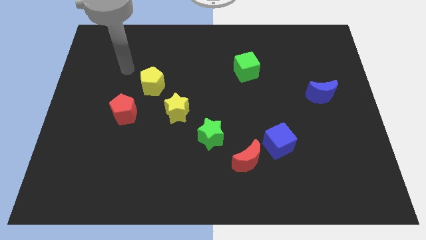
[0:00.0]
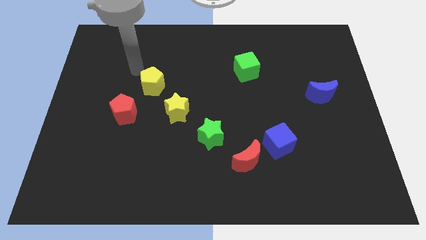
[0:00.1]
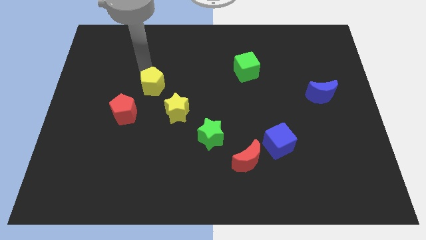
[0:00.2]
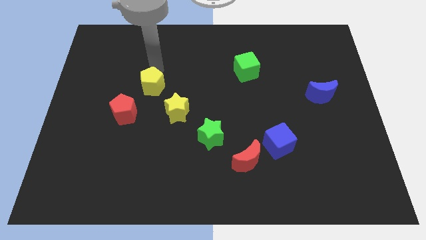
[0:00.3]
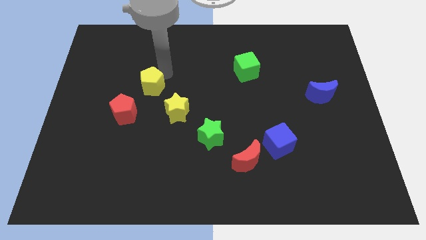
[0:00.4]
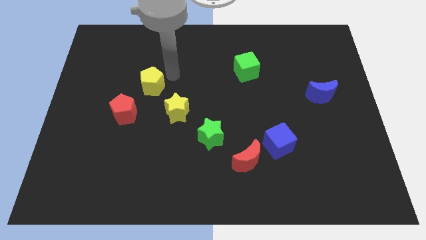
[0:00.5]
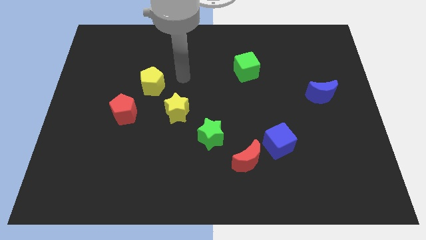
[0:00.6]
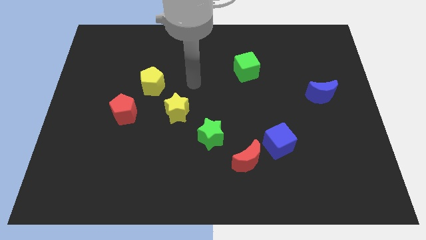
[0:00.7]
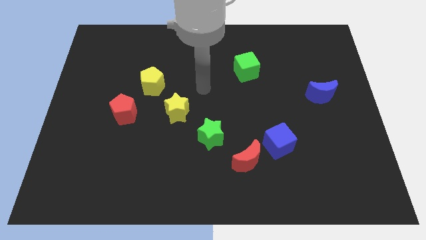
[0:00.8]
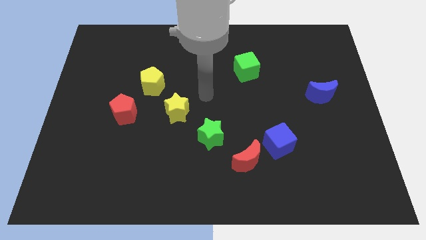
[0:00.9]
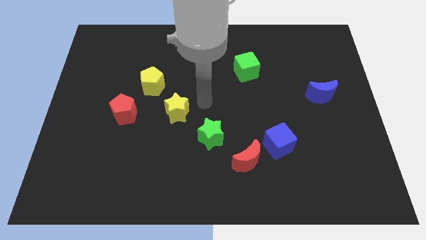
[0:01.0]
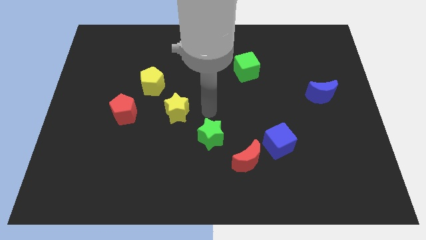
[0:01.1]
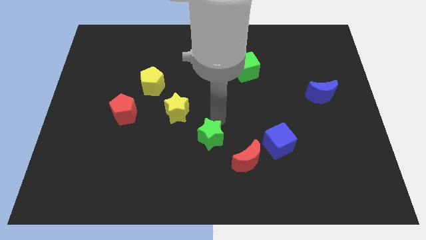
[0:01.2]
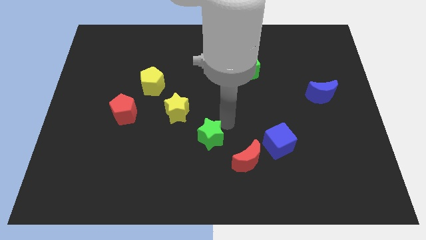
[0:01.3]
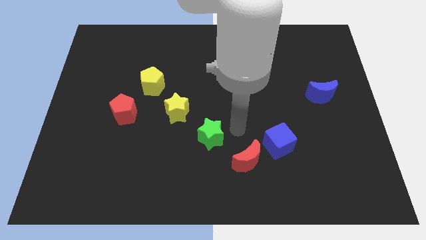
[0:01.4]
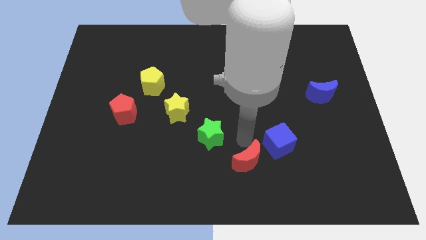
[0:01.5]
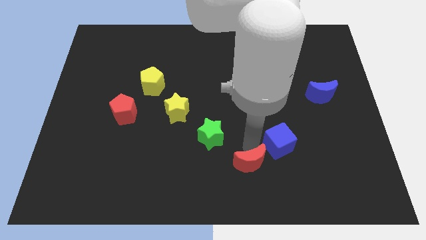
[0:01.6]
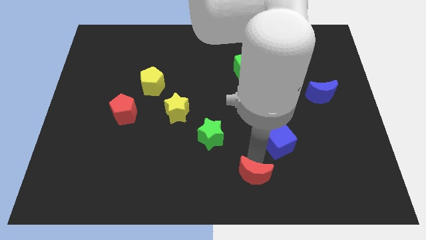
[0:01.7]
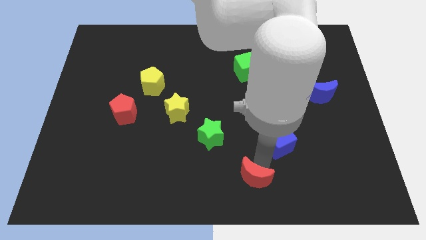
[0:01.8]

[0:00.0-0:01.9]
pull the blue cube apart from the red moon

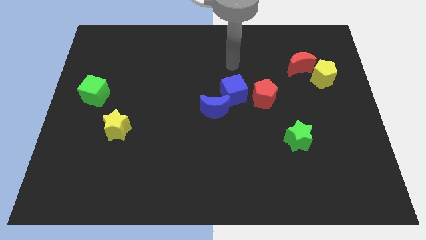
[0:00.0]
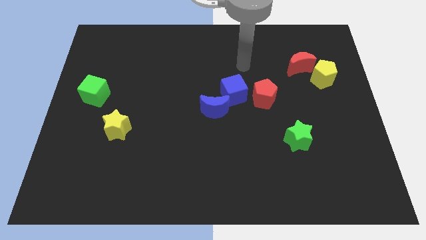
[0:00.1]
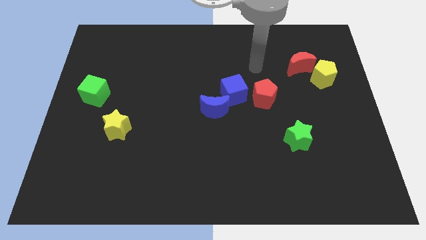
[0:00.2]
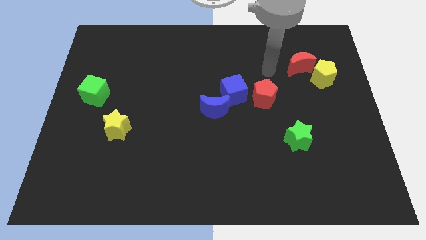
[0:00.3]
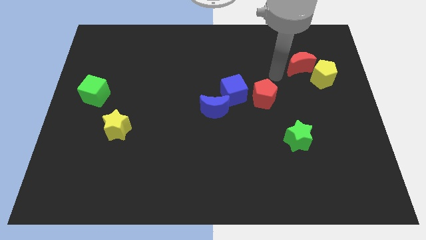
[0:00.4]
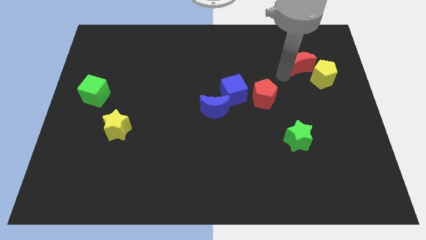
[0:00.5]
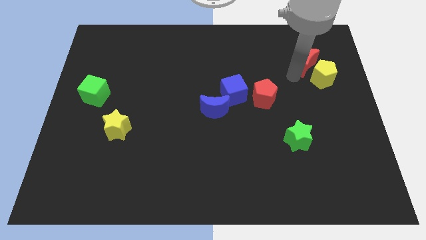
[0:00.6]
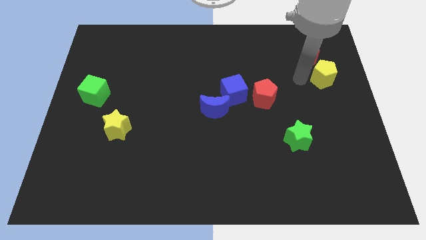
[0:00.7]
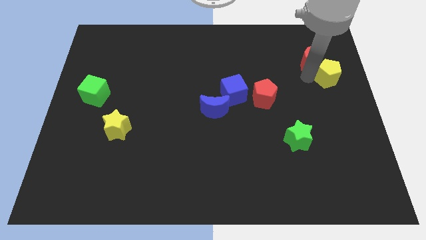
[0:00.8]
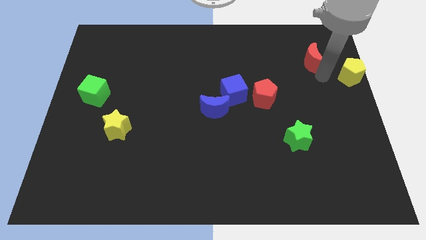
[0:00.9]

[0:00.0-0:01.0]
pull the red moon apart from the yellow pentagon

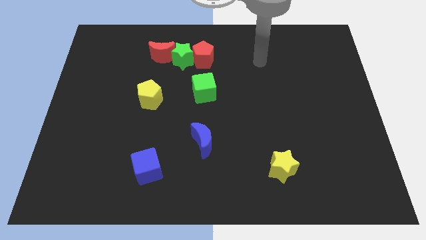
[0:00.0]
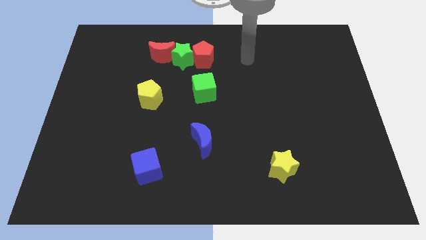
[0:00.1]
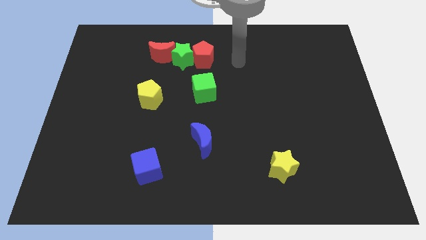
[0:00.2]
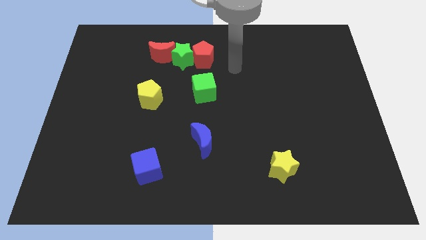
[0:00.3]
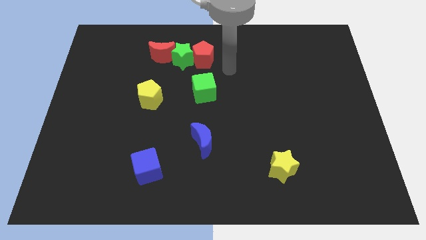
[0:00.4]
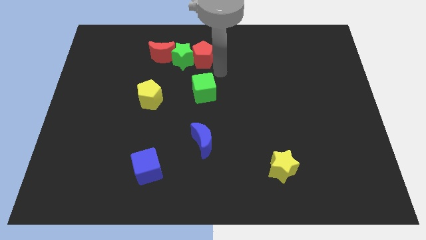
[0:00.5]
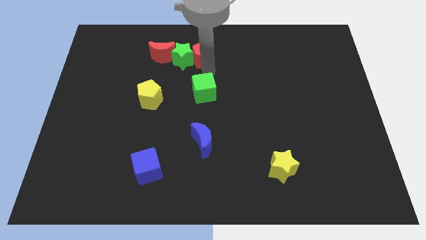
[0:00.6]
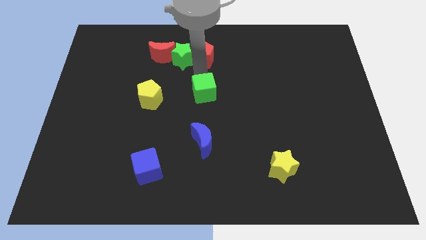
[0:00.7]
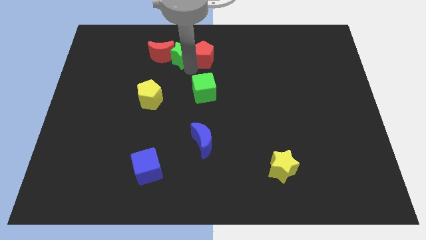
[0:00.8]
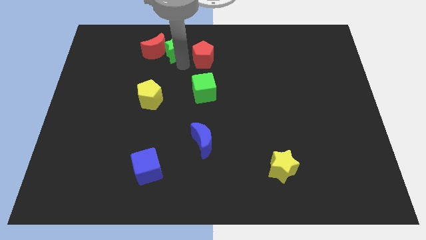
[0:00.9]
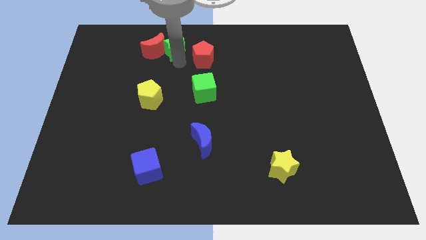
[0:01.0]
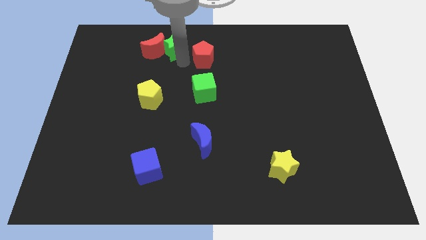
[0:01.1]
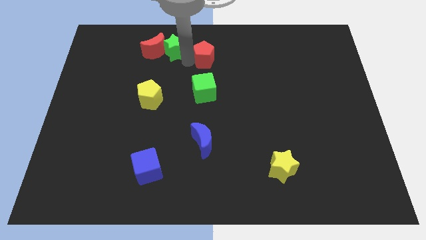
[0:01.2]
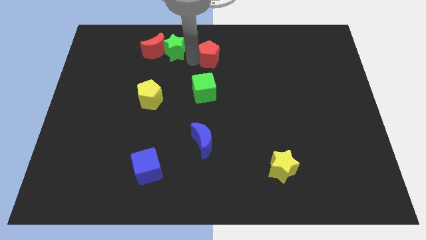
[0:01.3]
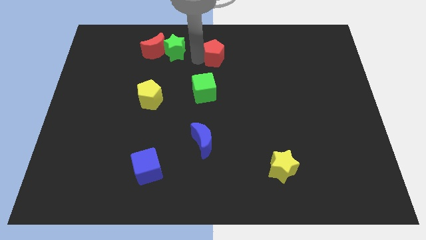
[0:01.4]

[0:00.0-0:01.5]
pull the red pentagon apart from the green star

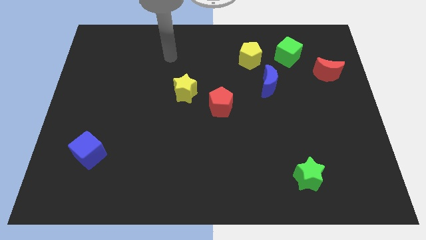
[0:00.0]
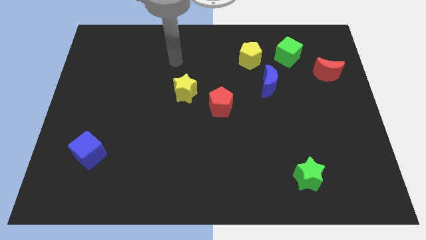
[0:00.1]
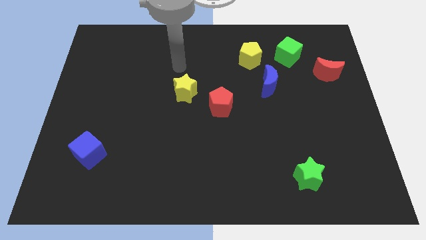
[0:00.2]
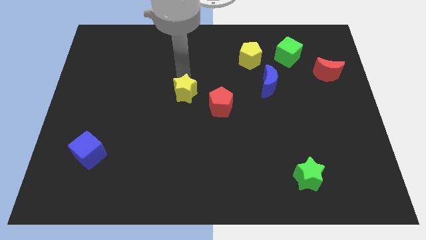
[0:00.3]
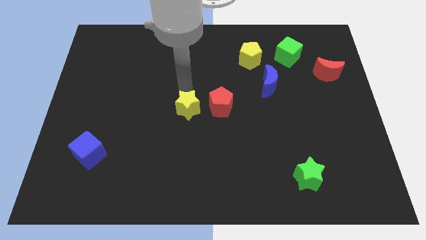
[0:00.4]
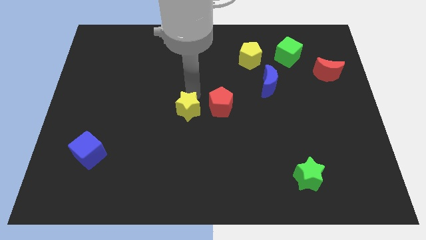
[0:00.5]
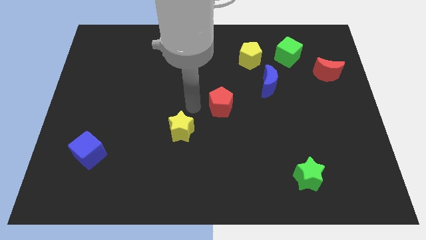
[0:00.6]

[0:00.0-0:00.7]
move the red pentagon away from the yellow star

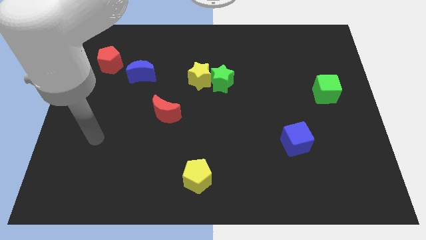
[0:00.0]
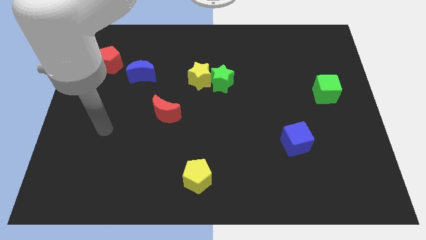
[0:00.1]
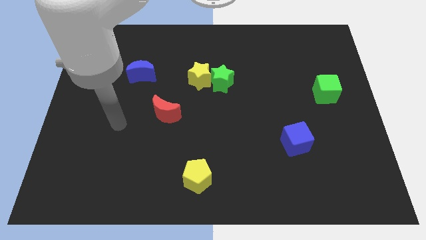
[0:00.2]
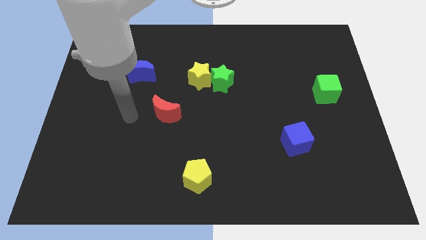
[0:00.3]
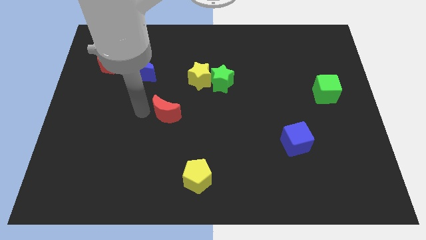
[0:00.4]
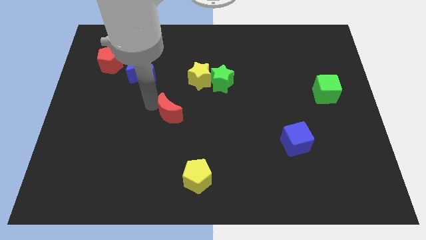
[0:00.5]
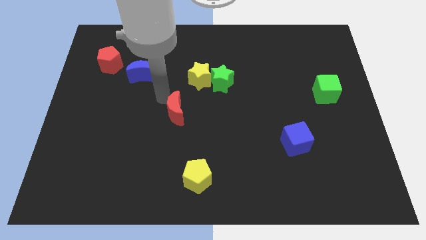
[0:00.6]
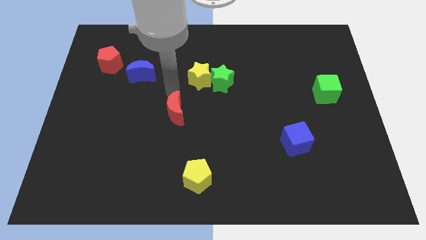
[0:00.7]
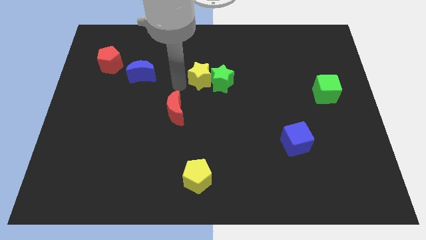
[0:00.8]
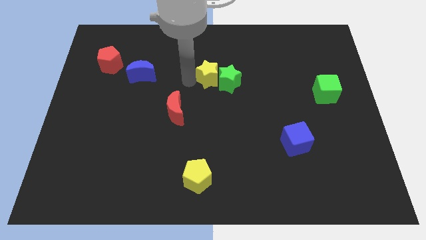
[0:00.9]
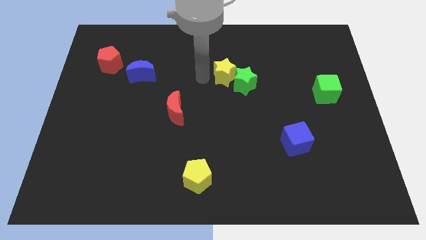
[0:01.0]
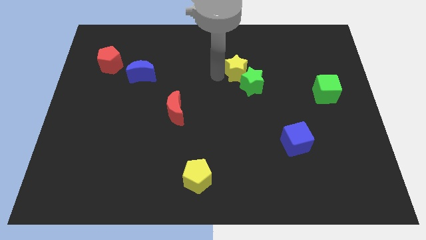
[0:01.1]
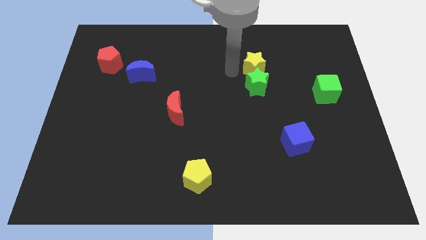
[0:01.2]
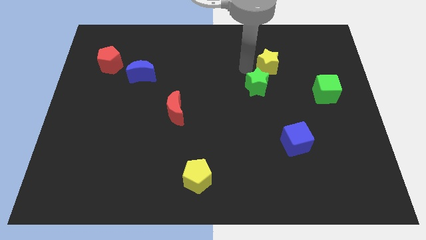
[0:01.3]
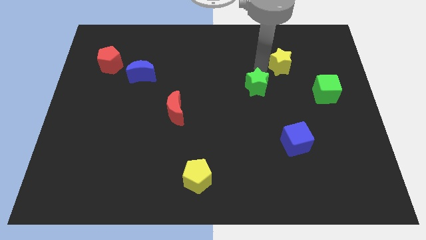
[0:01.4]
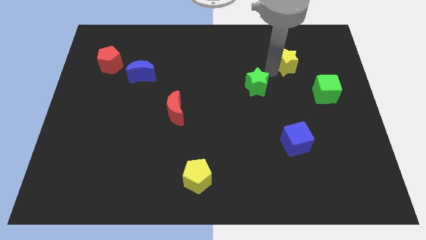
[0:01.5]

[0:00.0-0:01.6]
pull the green star apart from the yellow star

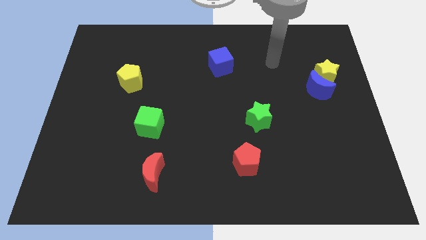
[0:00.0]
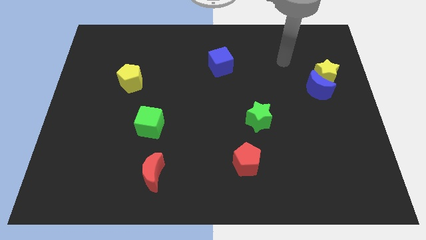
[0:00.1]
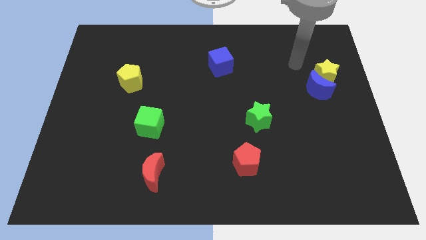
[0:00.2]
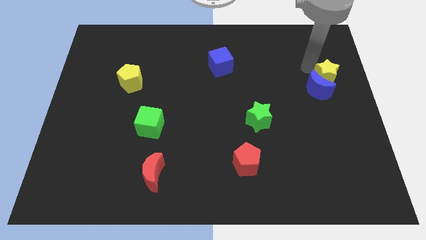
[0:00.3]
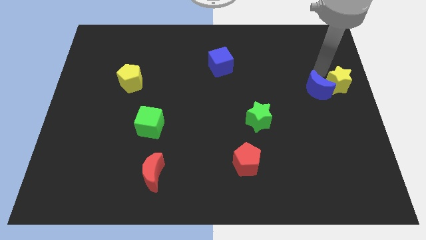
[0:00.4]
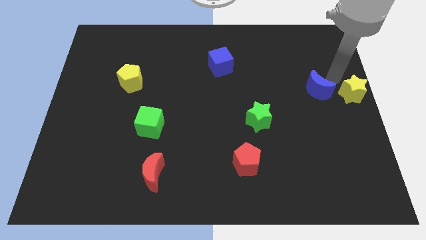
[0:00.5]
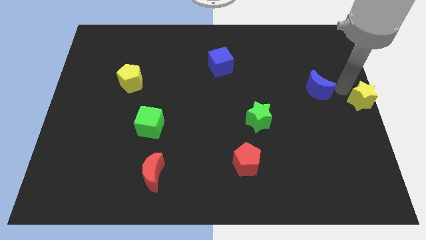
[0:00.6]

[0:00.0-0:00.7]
move the blue moon away from the yellow star

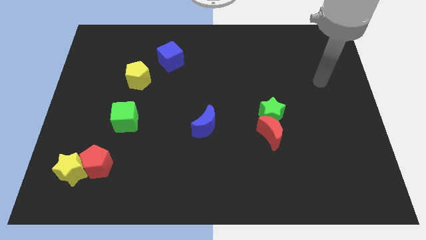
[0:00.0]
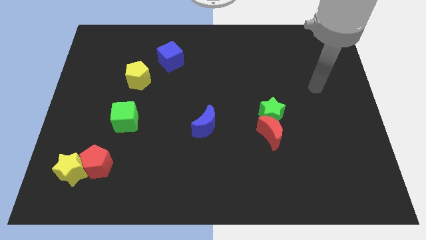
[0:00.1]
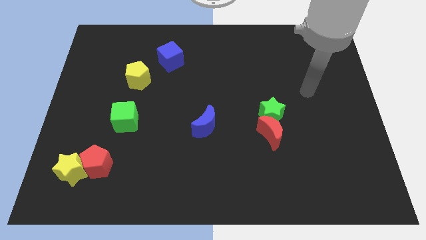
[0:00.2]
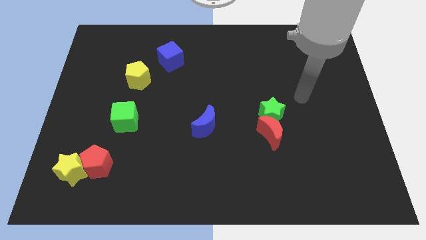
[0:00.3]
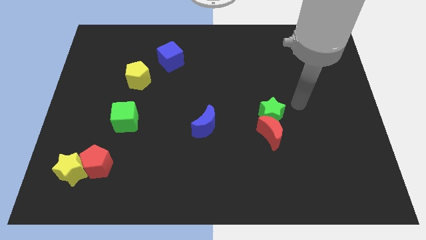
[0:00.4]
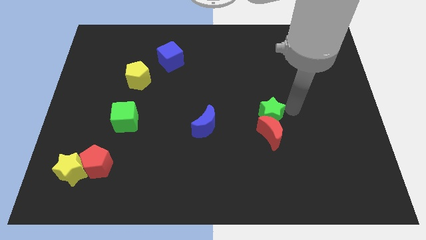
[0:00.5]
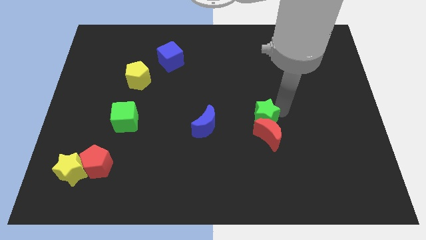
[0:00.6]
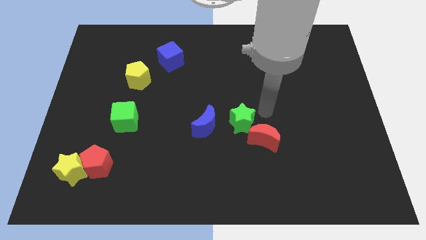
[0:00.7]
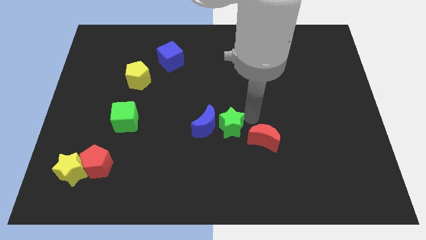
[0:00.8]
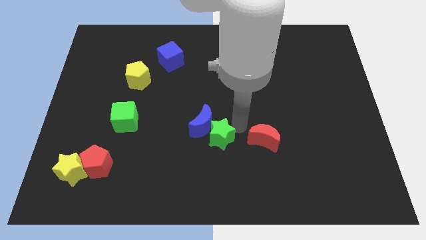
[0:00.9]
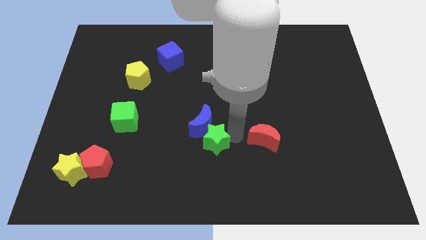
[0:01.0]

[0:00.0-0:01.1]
pull the red moon apart from the green star

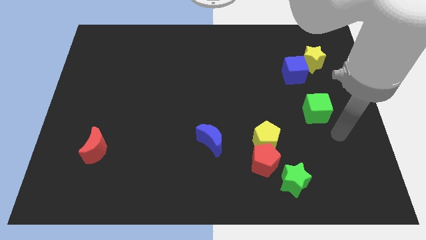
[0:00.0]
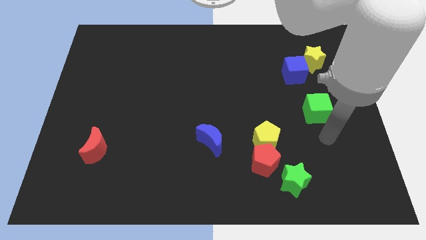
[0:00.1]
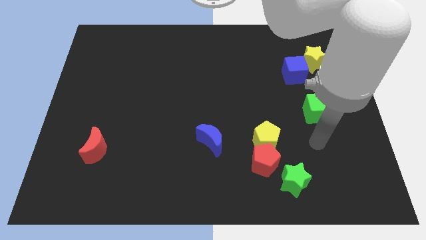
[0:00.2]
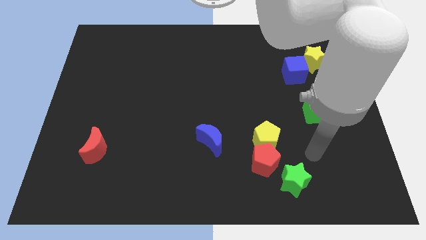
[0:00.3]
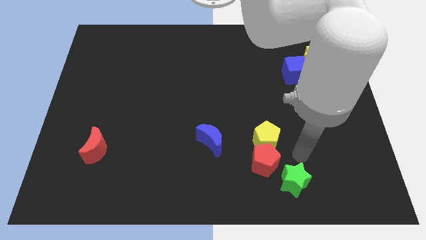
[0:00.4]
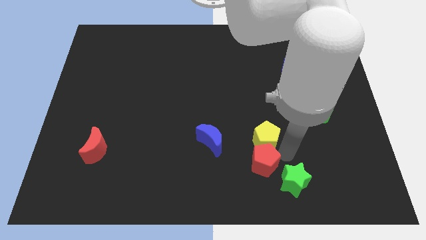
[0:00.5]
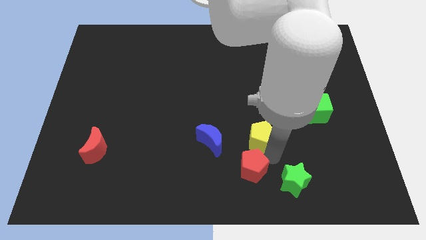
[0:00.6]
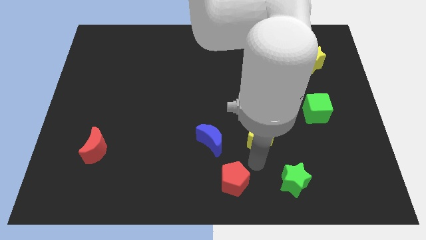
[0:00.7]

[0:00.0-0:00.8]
pull the yellow pentagon apart from the red pentagon

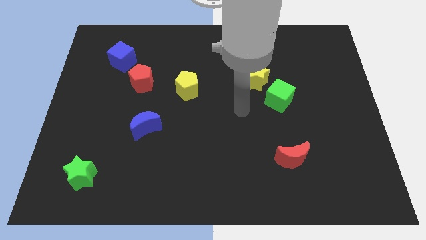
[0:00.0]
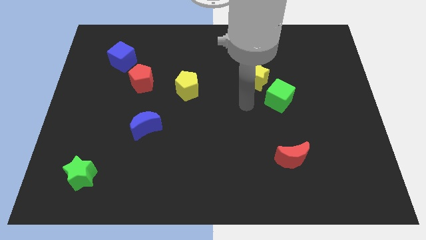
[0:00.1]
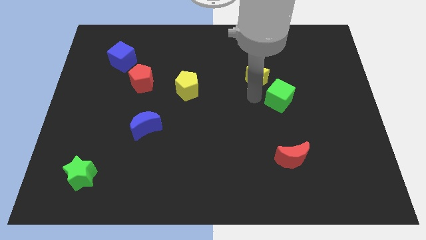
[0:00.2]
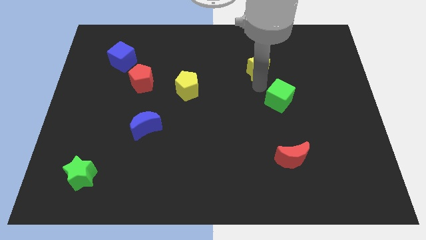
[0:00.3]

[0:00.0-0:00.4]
separate the green cube from the yellow star
